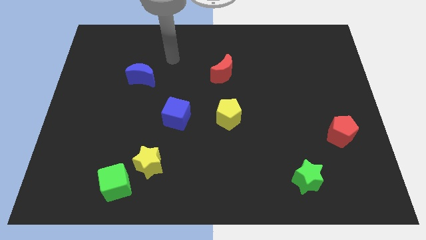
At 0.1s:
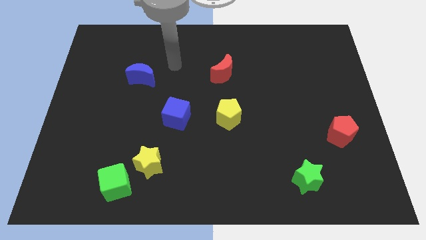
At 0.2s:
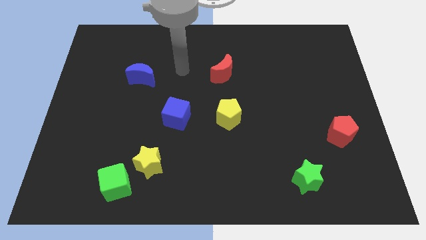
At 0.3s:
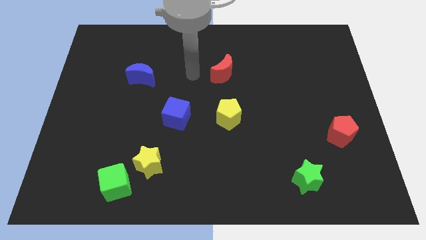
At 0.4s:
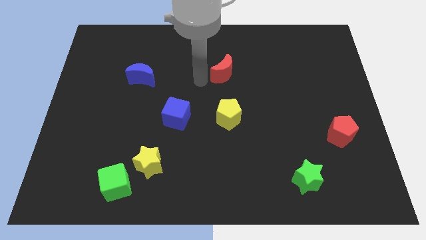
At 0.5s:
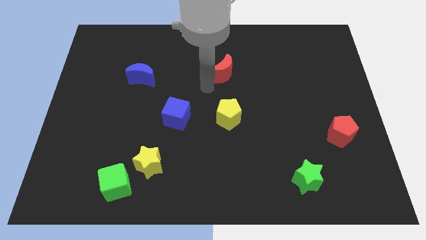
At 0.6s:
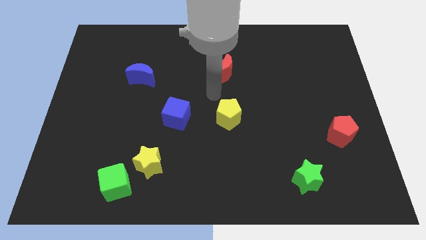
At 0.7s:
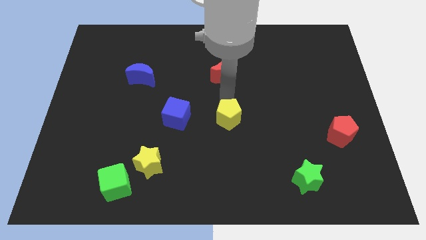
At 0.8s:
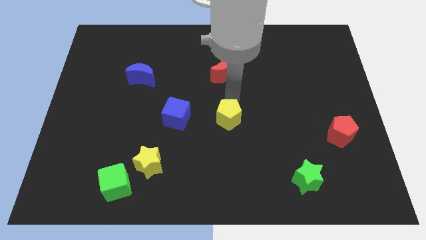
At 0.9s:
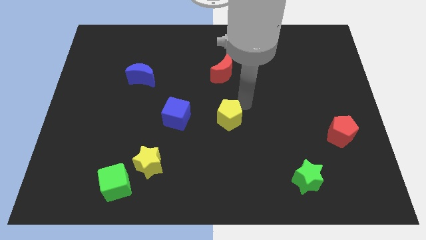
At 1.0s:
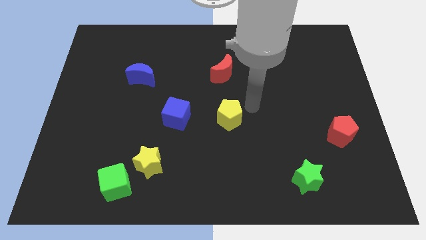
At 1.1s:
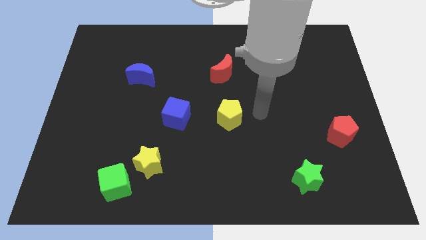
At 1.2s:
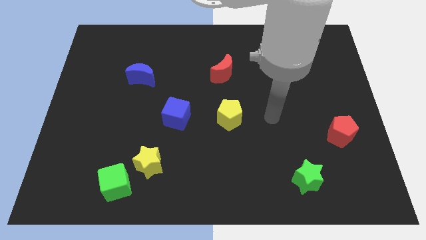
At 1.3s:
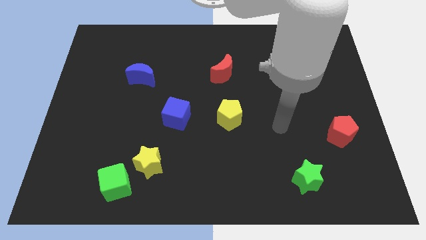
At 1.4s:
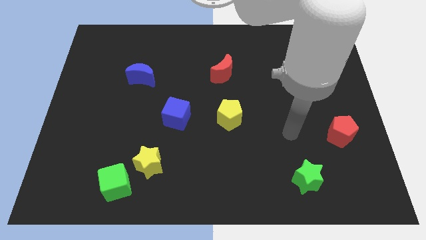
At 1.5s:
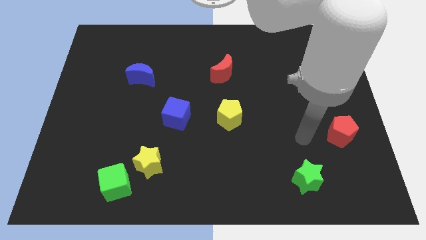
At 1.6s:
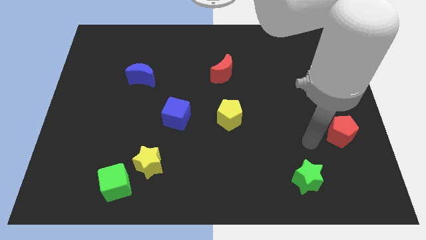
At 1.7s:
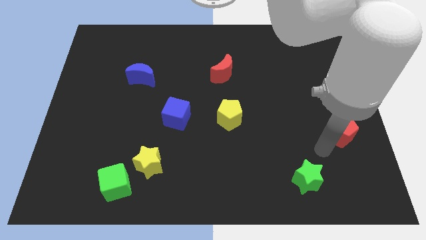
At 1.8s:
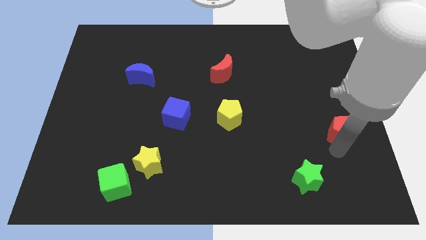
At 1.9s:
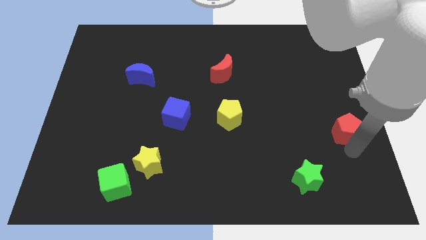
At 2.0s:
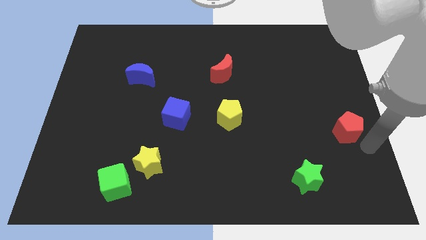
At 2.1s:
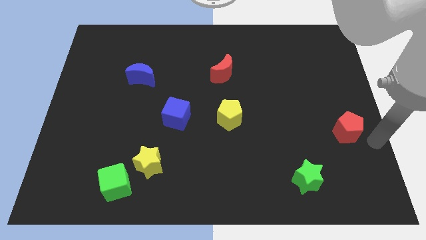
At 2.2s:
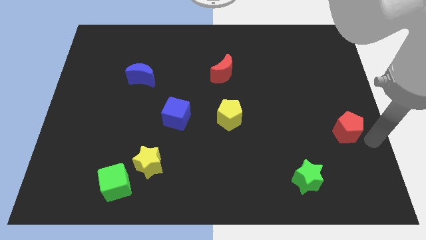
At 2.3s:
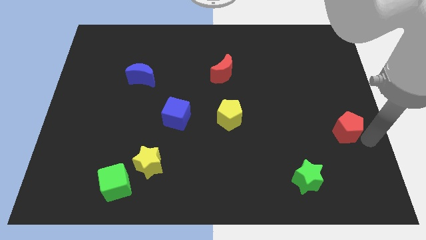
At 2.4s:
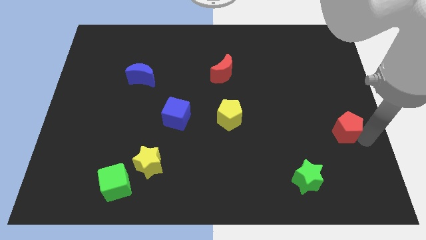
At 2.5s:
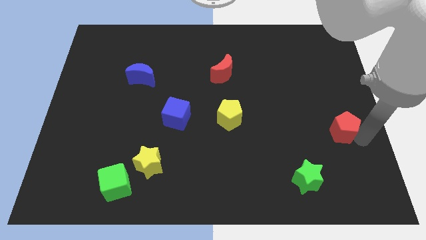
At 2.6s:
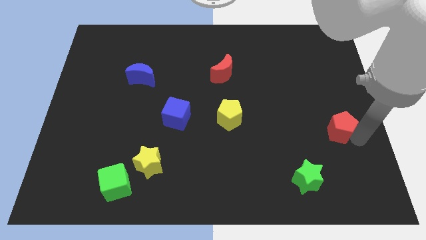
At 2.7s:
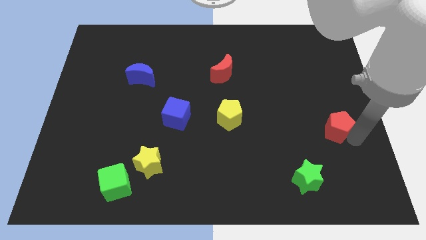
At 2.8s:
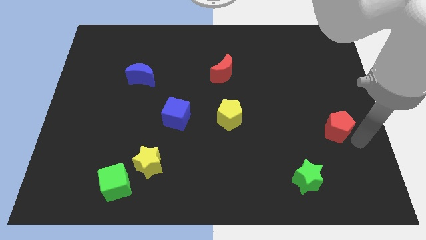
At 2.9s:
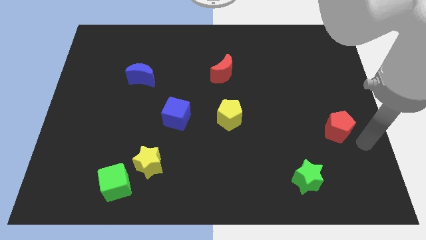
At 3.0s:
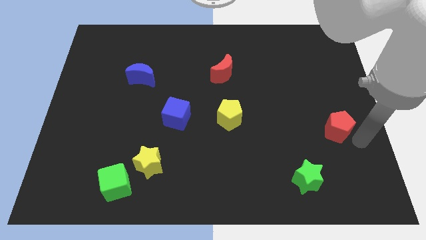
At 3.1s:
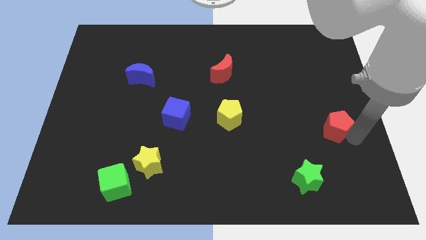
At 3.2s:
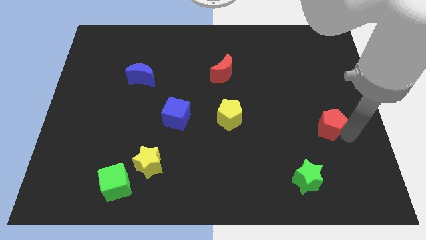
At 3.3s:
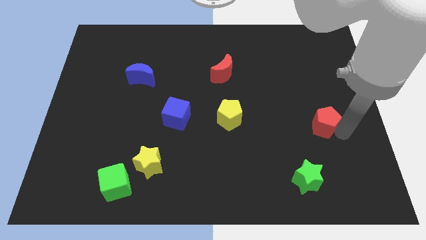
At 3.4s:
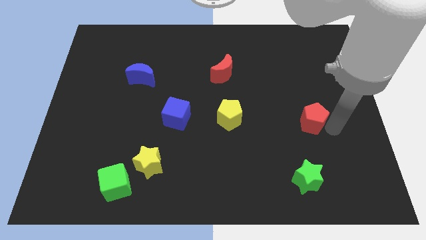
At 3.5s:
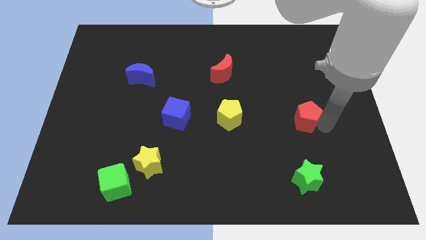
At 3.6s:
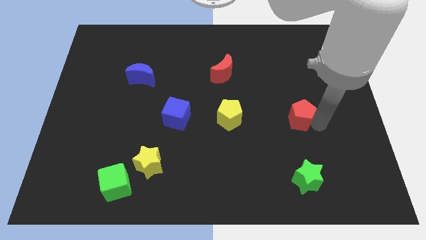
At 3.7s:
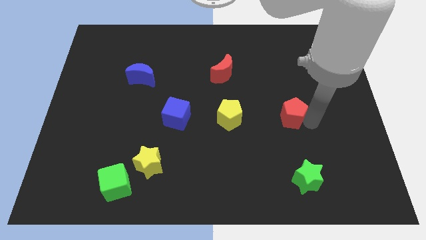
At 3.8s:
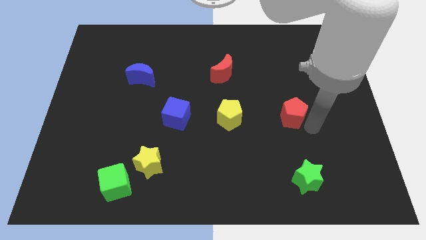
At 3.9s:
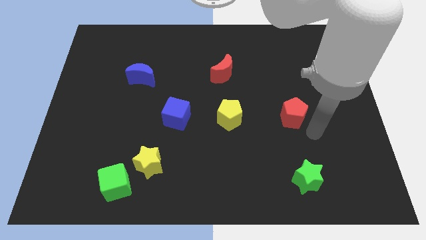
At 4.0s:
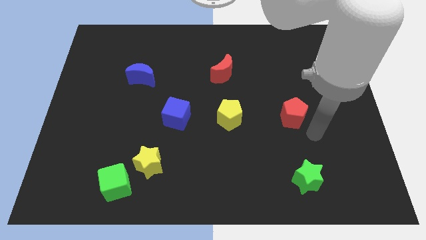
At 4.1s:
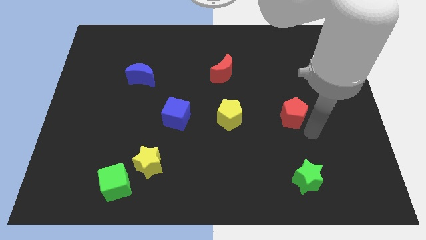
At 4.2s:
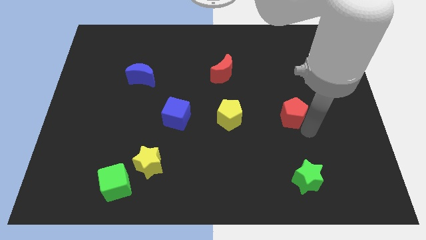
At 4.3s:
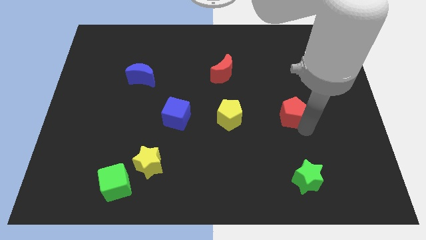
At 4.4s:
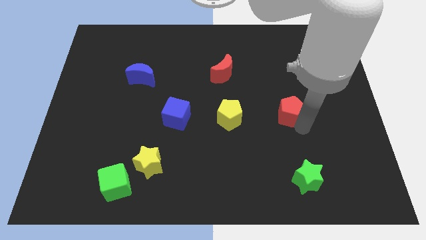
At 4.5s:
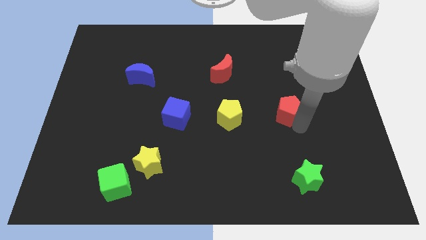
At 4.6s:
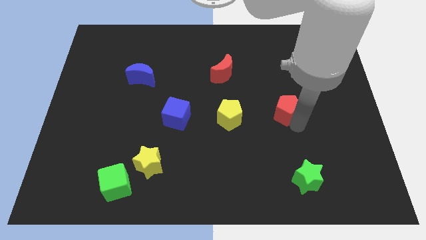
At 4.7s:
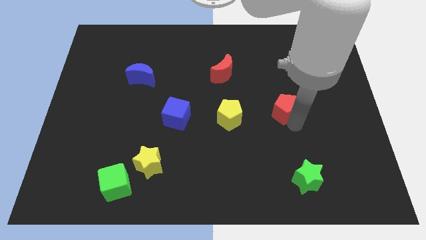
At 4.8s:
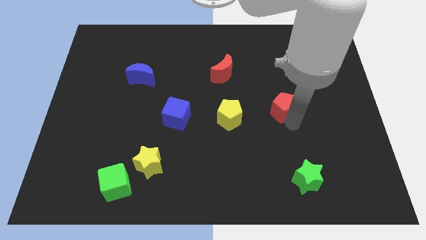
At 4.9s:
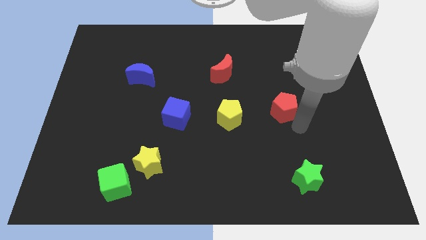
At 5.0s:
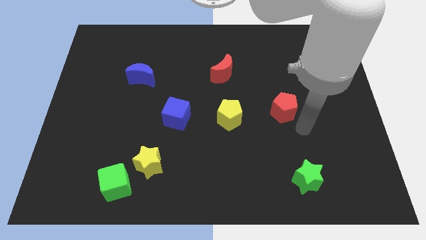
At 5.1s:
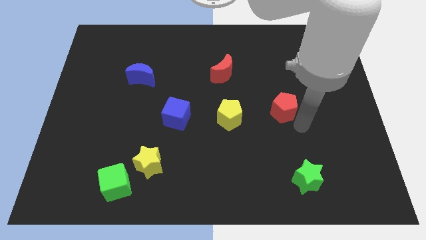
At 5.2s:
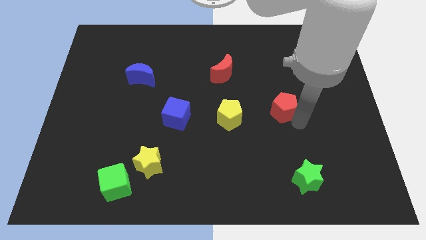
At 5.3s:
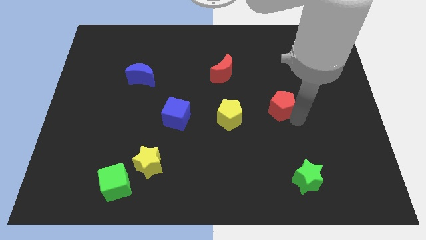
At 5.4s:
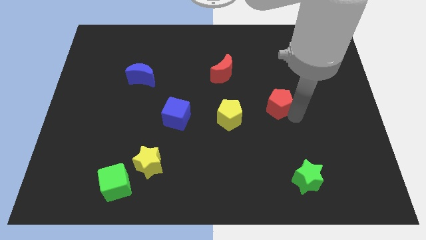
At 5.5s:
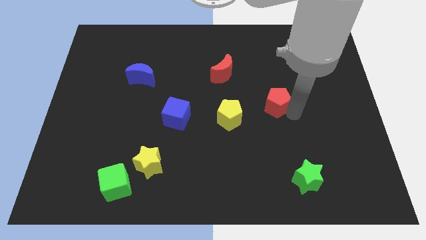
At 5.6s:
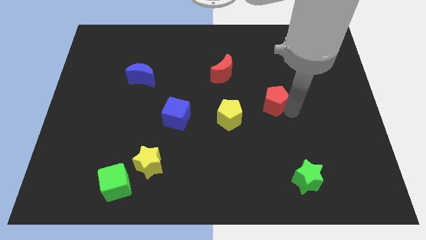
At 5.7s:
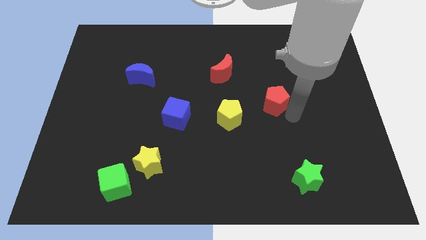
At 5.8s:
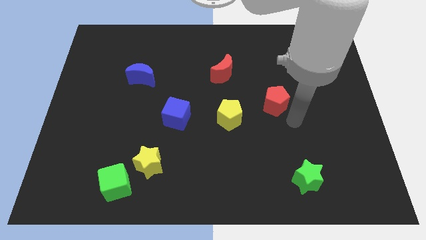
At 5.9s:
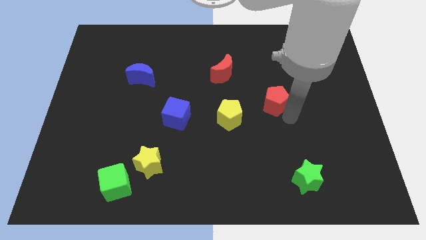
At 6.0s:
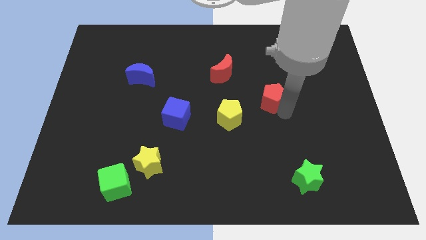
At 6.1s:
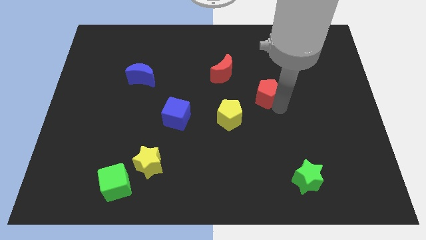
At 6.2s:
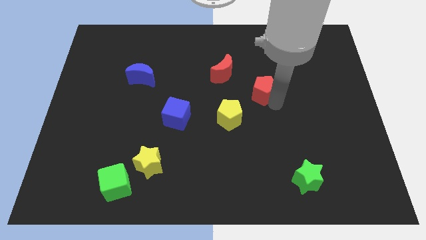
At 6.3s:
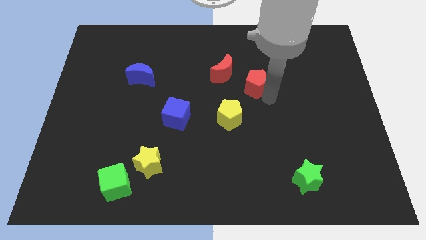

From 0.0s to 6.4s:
push the red pentagon upwards and left

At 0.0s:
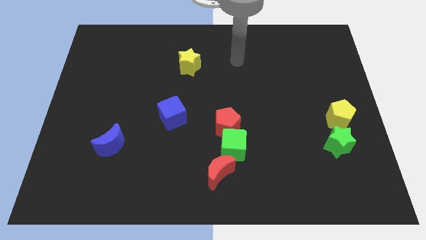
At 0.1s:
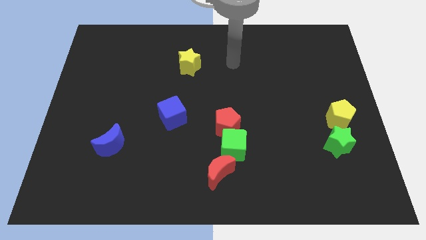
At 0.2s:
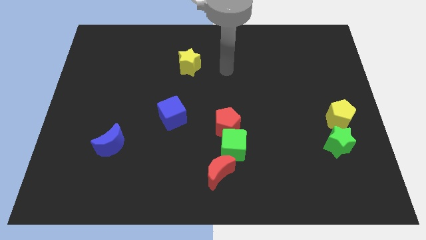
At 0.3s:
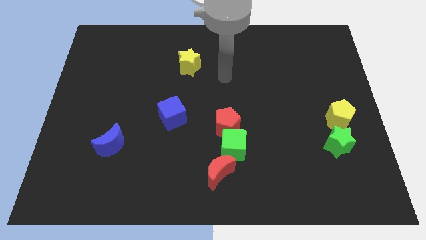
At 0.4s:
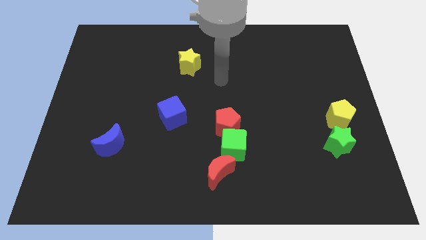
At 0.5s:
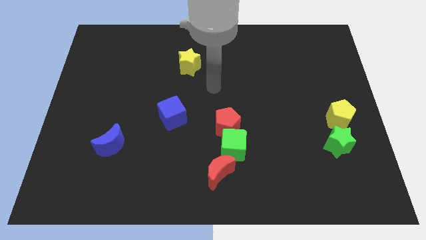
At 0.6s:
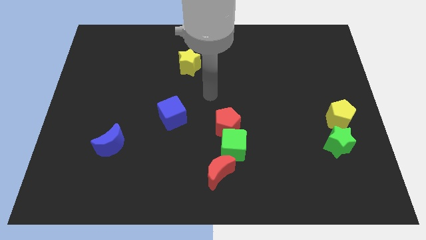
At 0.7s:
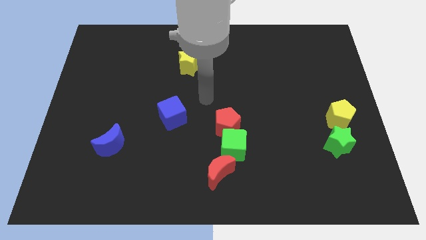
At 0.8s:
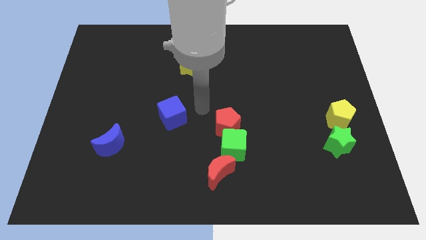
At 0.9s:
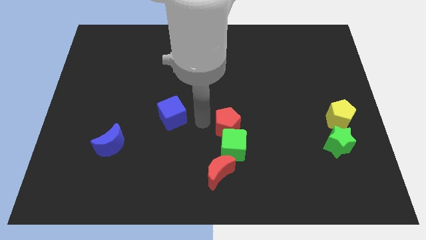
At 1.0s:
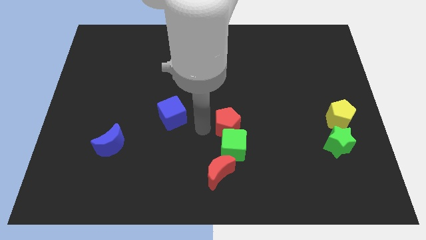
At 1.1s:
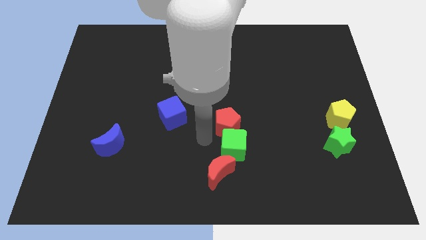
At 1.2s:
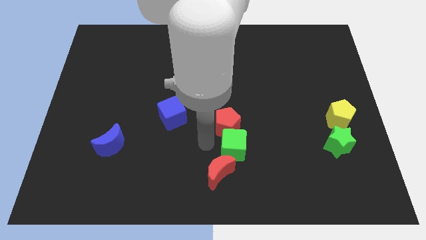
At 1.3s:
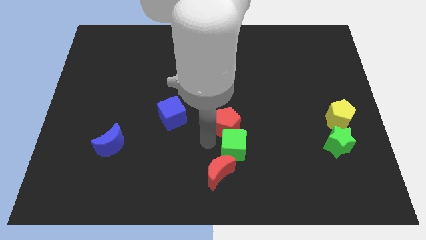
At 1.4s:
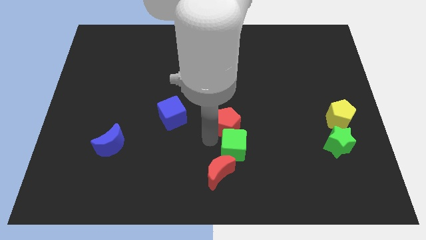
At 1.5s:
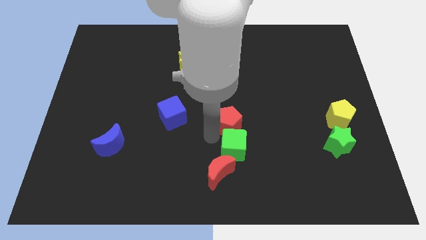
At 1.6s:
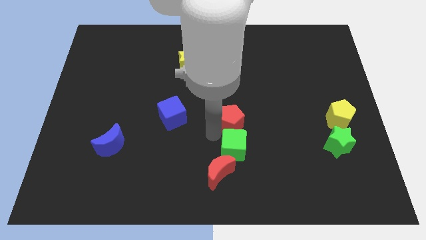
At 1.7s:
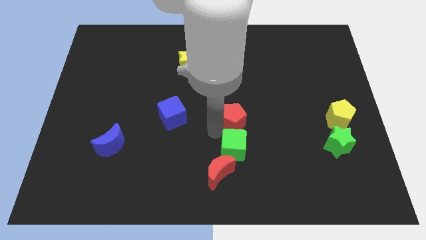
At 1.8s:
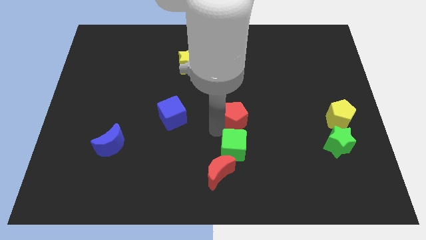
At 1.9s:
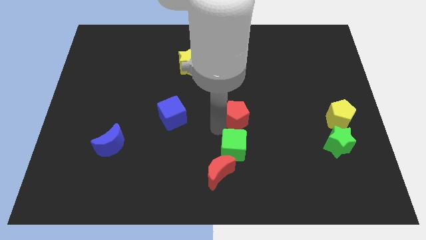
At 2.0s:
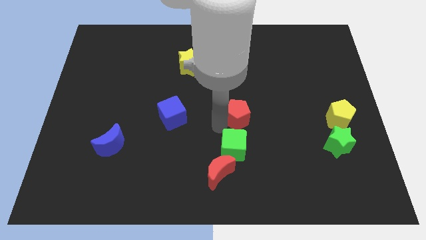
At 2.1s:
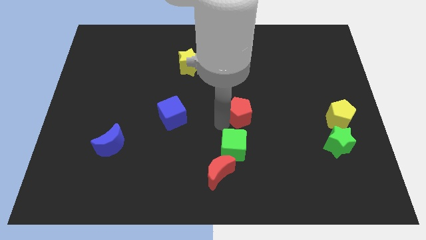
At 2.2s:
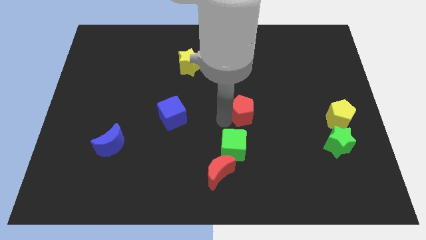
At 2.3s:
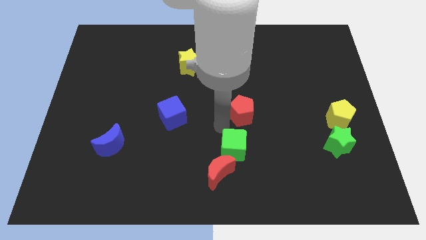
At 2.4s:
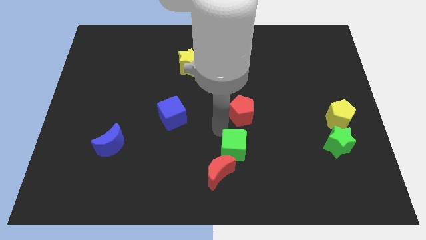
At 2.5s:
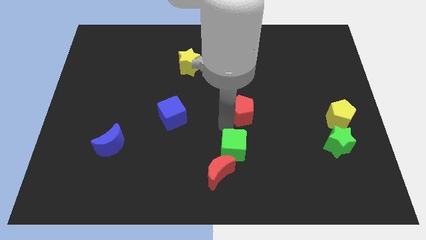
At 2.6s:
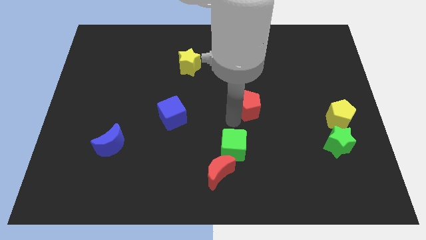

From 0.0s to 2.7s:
slightly slide the red pentagon upwards and to the right
